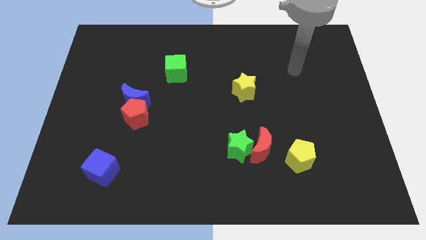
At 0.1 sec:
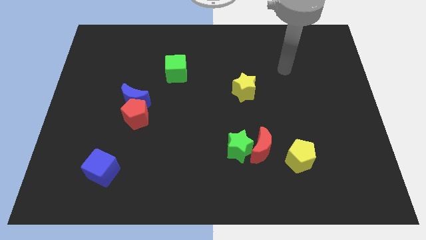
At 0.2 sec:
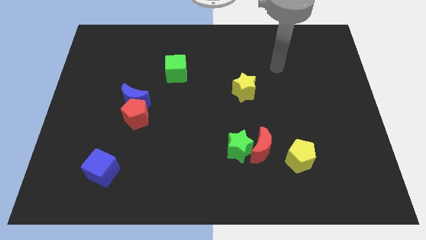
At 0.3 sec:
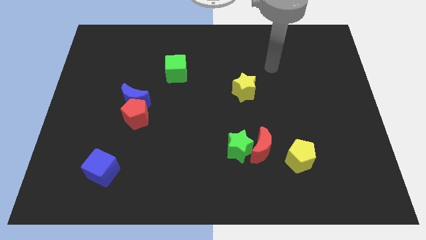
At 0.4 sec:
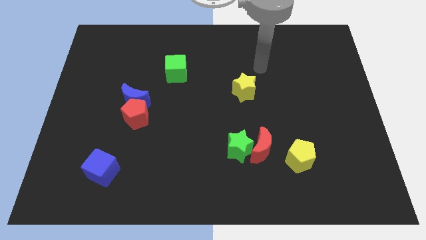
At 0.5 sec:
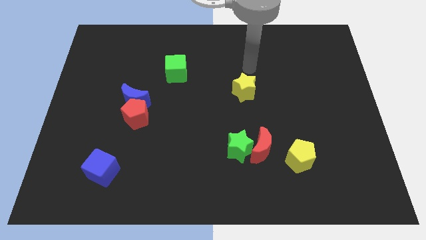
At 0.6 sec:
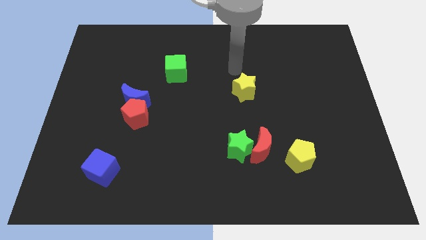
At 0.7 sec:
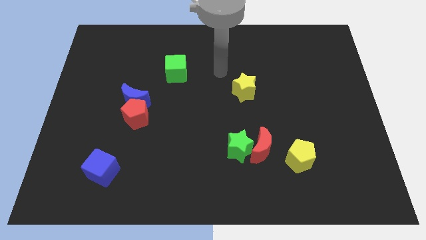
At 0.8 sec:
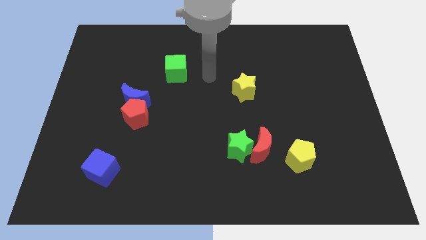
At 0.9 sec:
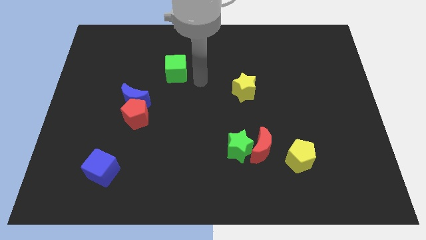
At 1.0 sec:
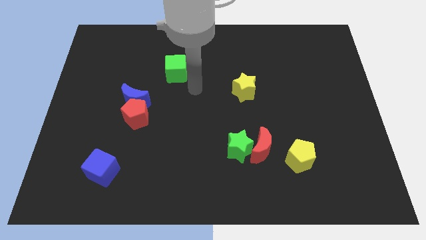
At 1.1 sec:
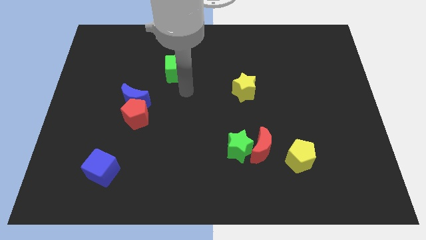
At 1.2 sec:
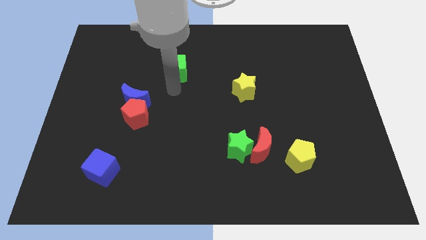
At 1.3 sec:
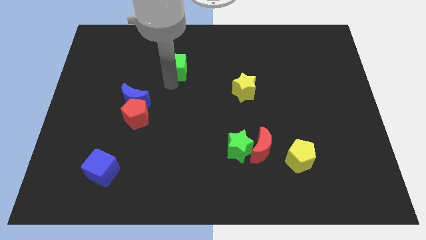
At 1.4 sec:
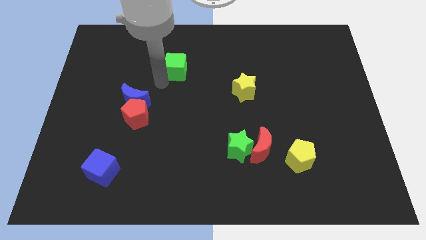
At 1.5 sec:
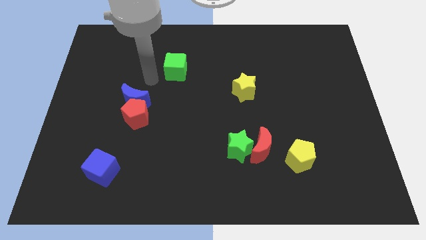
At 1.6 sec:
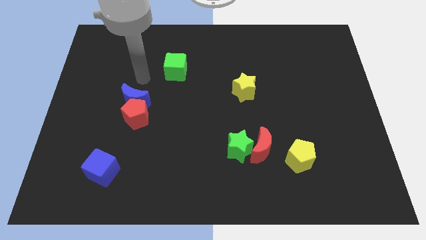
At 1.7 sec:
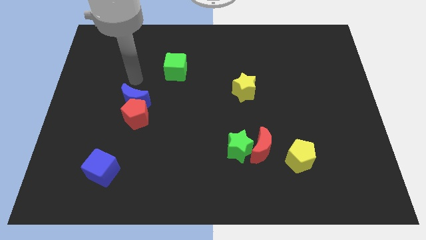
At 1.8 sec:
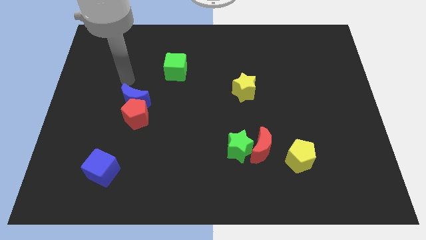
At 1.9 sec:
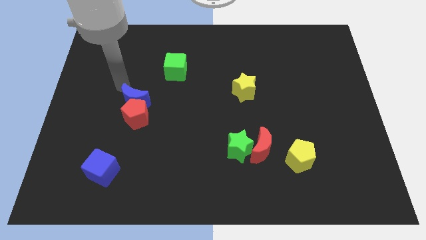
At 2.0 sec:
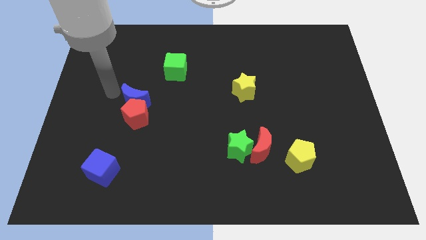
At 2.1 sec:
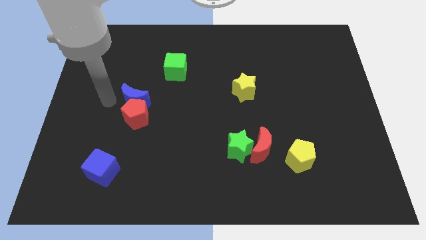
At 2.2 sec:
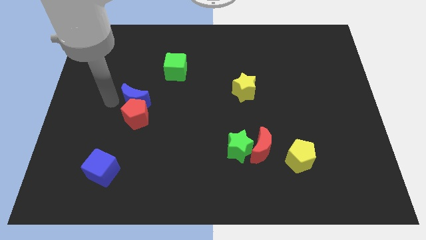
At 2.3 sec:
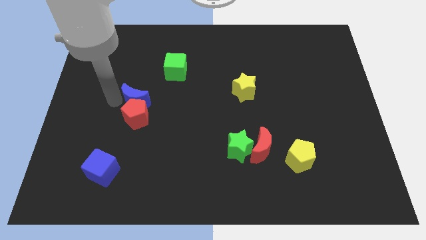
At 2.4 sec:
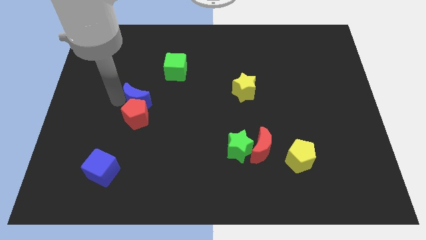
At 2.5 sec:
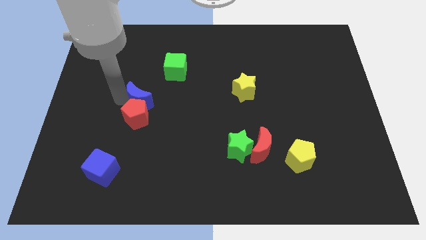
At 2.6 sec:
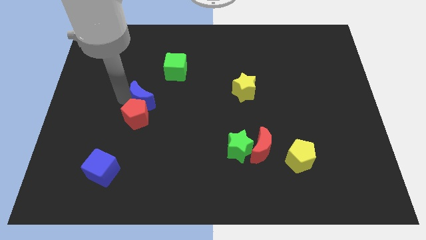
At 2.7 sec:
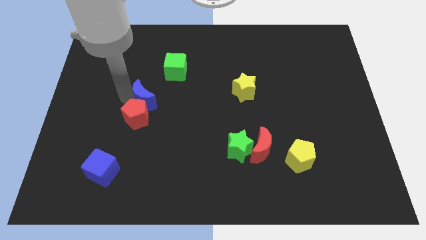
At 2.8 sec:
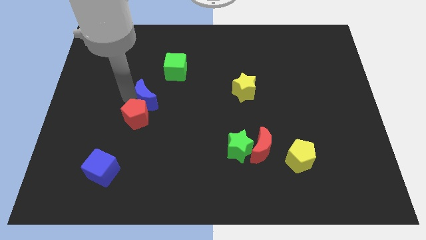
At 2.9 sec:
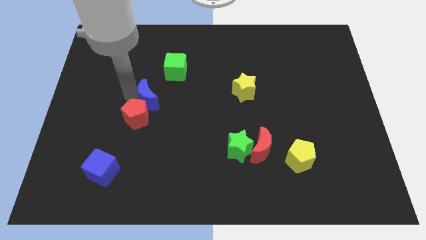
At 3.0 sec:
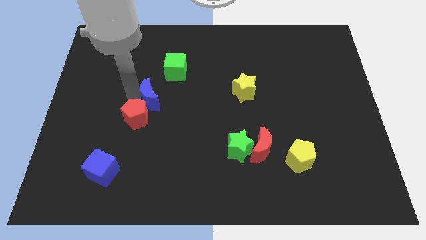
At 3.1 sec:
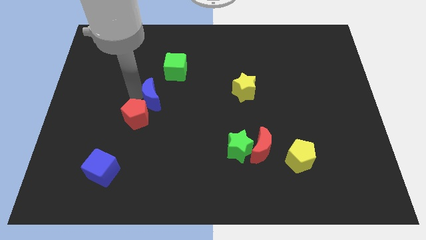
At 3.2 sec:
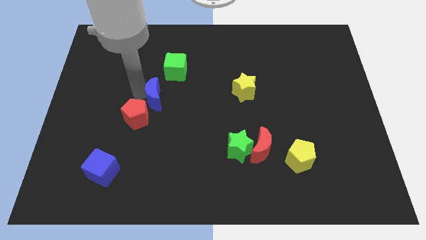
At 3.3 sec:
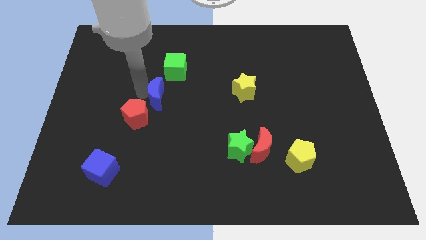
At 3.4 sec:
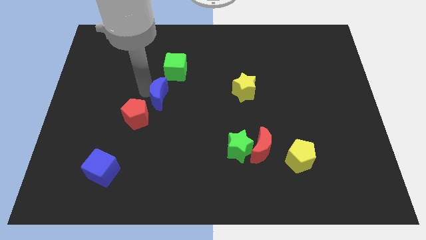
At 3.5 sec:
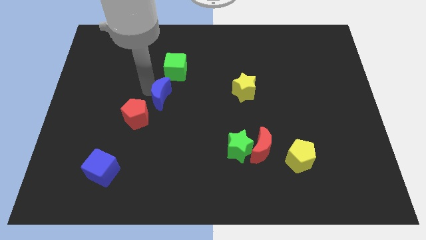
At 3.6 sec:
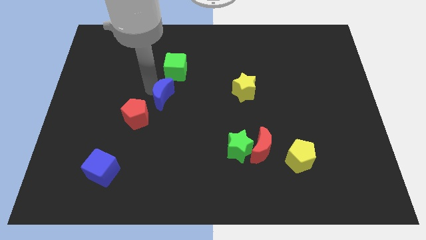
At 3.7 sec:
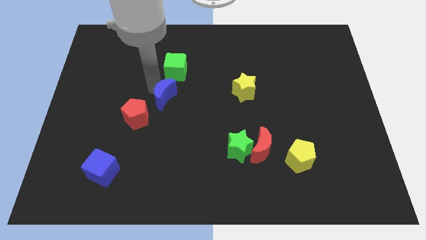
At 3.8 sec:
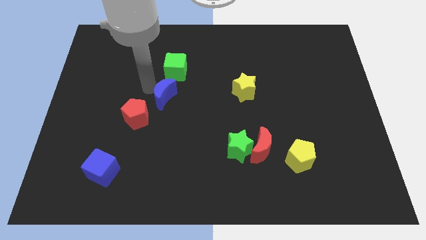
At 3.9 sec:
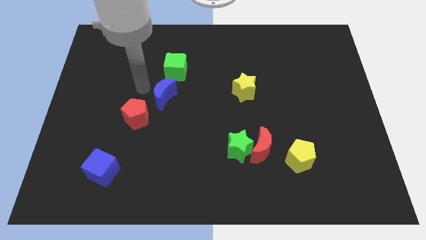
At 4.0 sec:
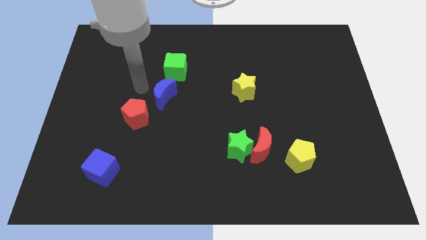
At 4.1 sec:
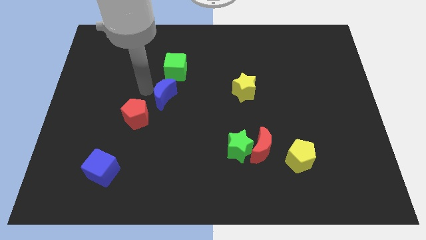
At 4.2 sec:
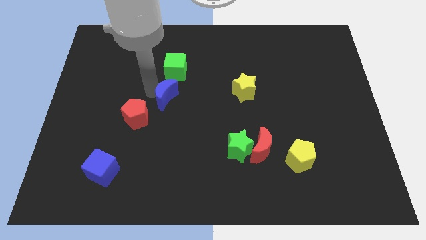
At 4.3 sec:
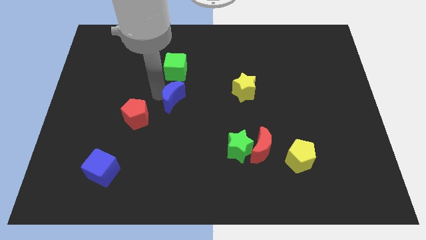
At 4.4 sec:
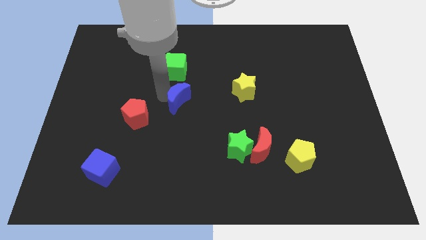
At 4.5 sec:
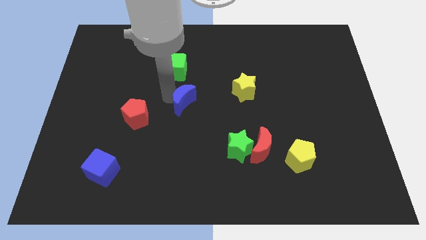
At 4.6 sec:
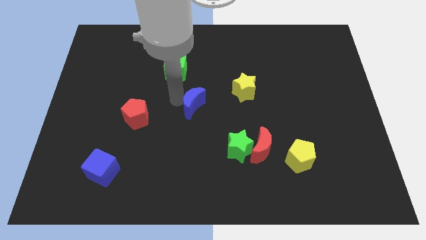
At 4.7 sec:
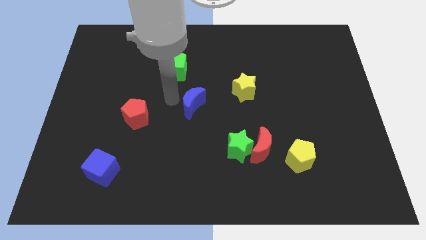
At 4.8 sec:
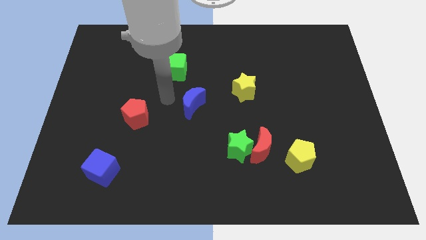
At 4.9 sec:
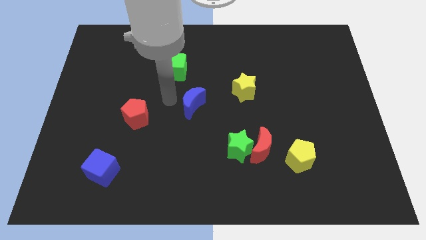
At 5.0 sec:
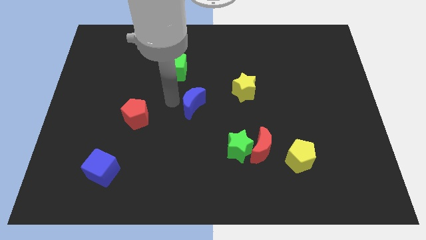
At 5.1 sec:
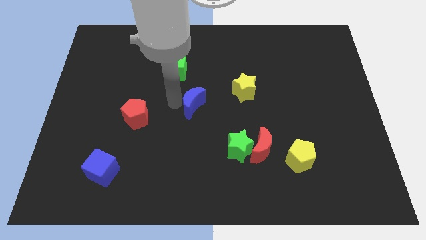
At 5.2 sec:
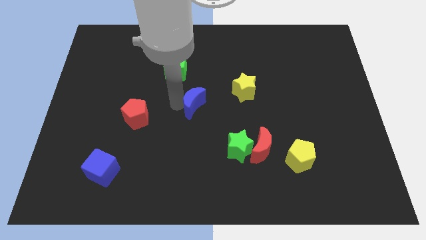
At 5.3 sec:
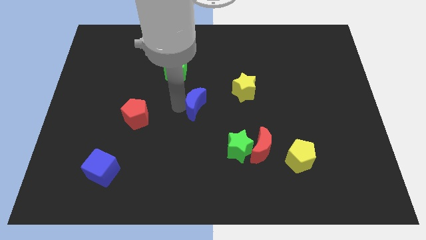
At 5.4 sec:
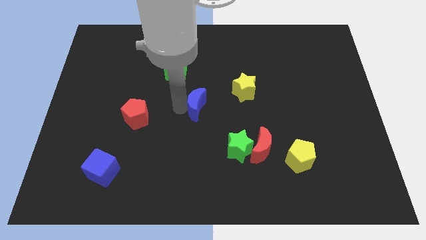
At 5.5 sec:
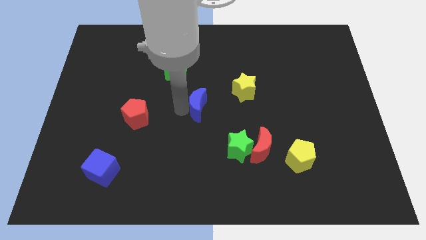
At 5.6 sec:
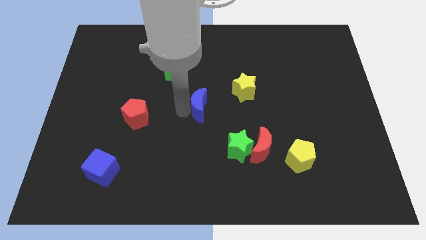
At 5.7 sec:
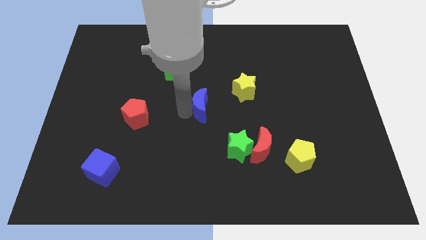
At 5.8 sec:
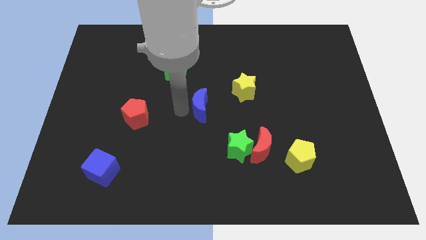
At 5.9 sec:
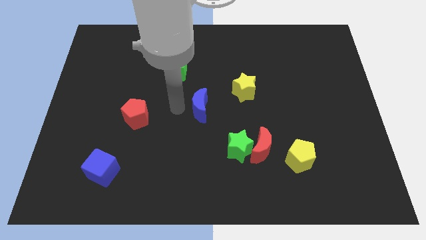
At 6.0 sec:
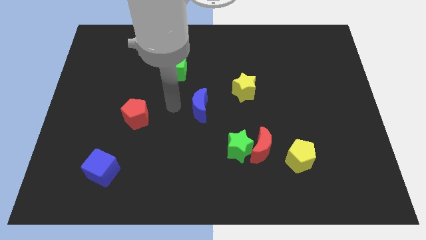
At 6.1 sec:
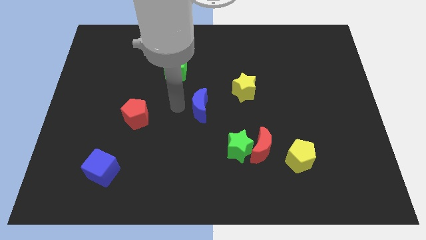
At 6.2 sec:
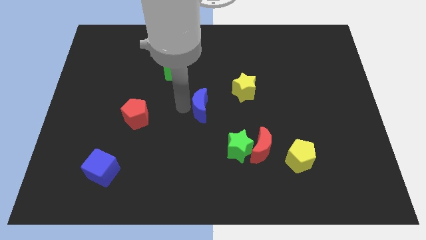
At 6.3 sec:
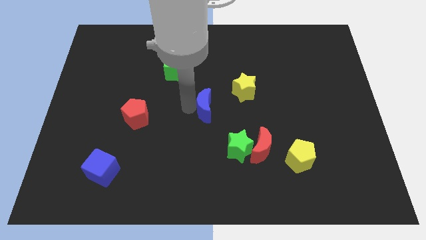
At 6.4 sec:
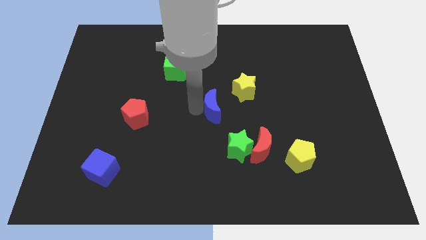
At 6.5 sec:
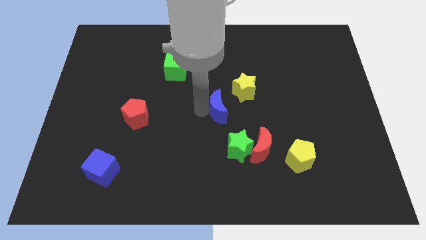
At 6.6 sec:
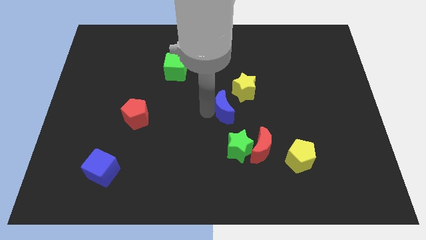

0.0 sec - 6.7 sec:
slide the blue moon right

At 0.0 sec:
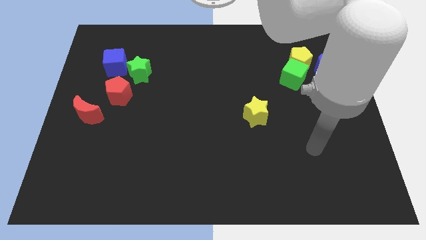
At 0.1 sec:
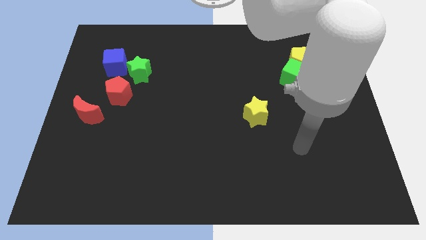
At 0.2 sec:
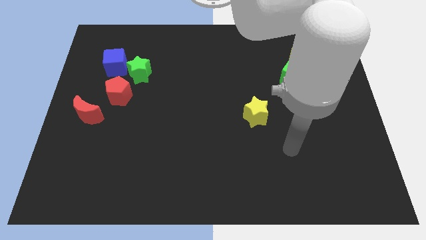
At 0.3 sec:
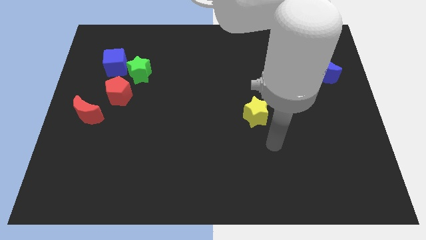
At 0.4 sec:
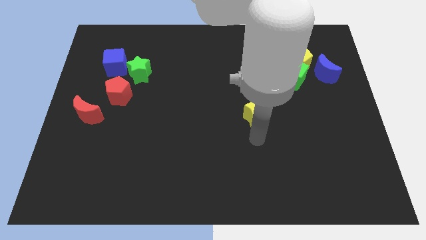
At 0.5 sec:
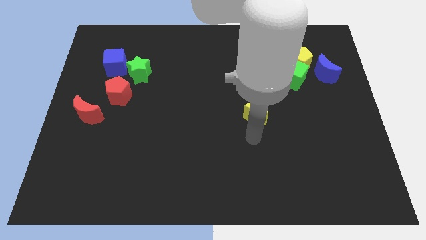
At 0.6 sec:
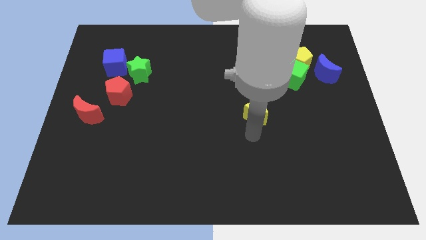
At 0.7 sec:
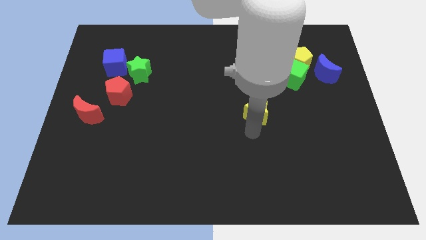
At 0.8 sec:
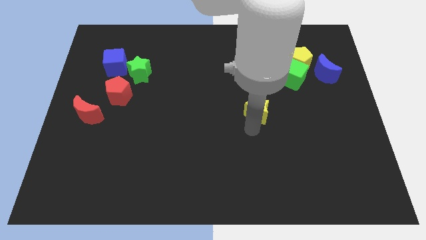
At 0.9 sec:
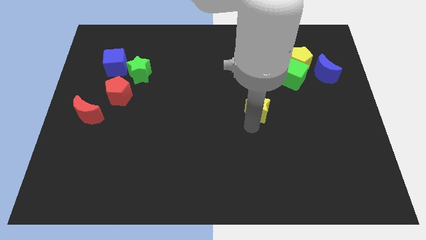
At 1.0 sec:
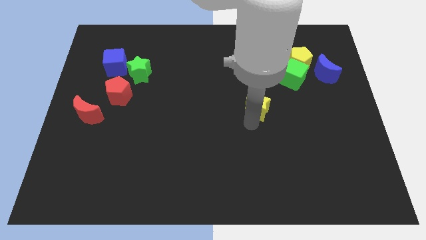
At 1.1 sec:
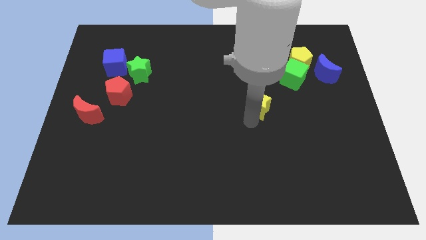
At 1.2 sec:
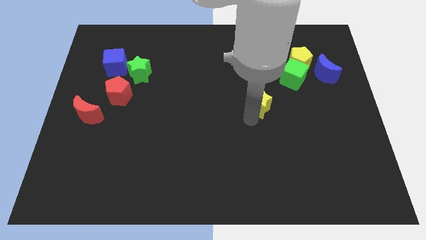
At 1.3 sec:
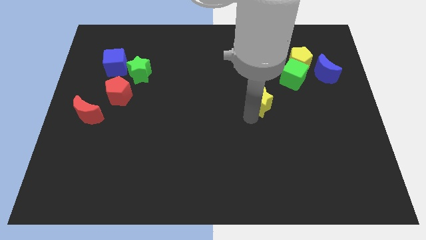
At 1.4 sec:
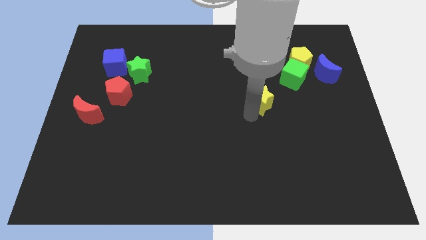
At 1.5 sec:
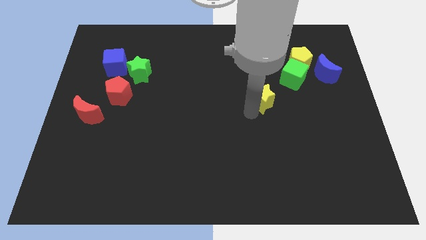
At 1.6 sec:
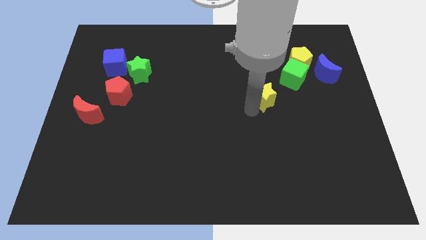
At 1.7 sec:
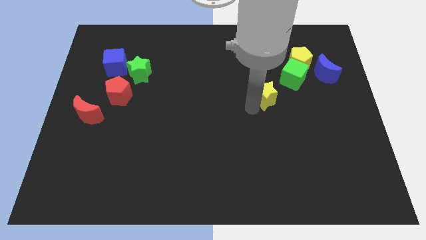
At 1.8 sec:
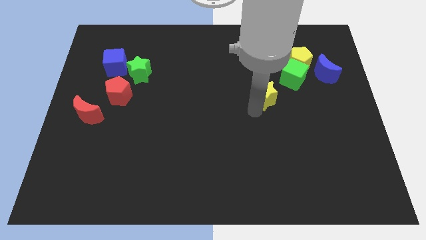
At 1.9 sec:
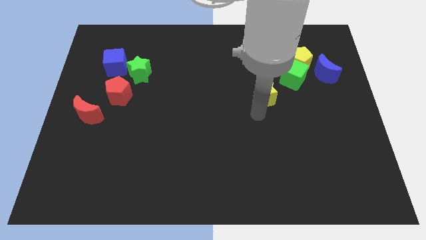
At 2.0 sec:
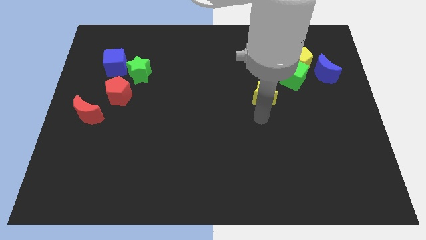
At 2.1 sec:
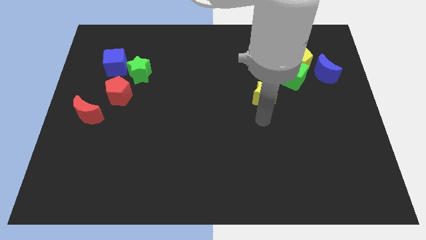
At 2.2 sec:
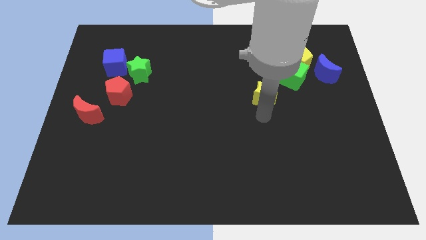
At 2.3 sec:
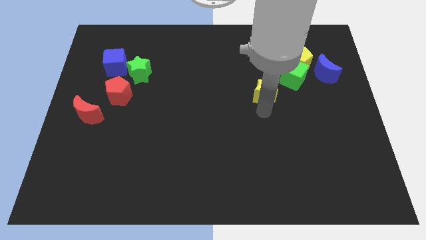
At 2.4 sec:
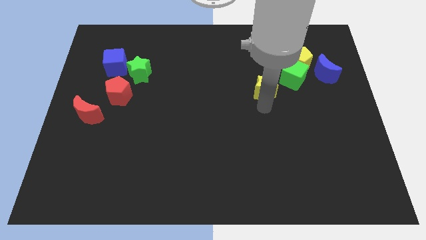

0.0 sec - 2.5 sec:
move the yellow star upwards slightly
